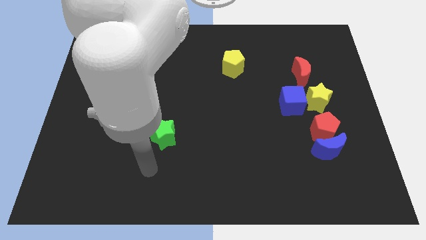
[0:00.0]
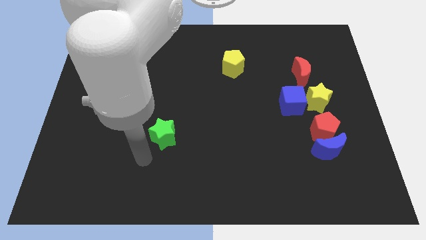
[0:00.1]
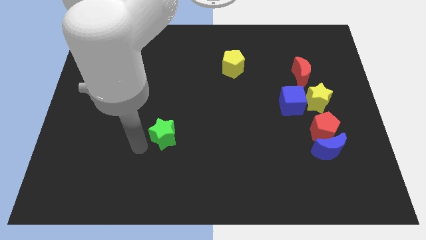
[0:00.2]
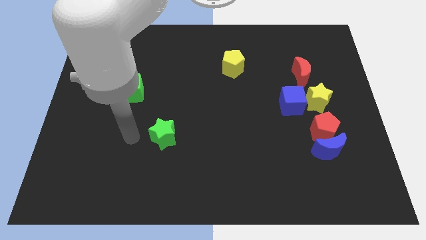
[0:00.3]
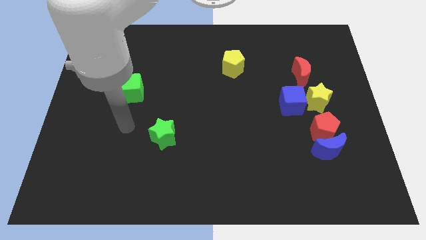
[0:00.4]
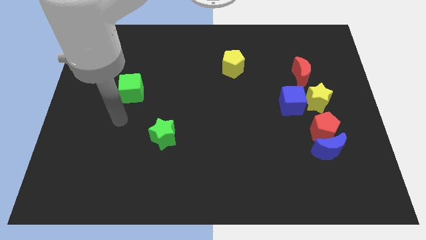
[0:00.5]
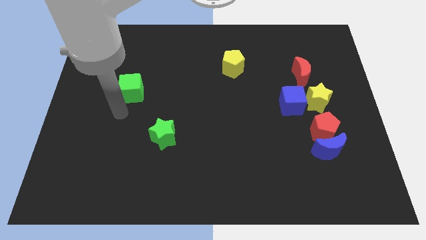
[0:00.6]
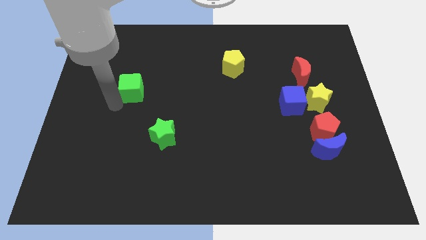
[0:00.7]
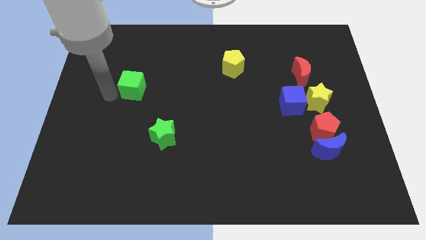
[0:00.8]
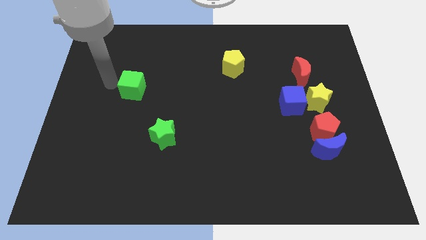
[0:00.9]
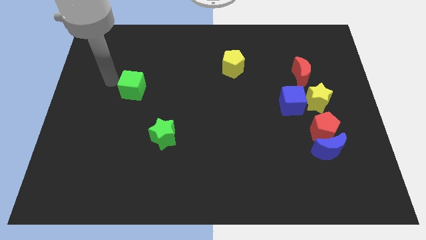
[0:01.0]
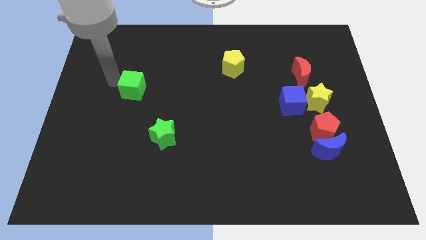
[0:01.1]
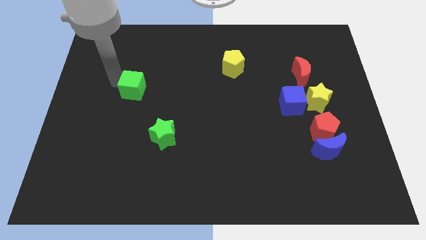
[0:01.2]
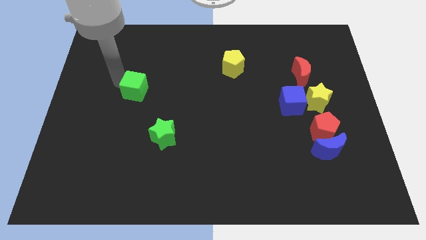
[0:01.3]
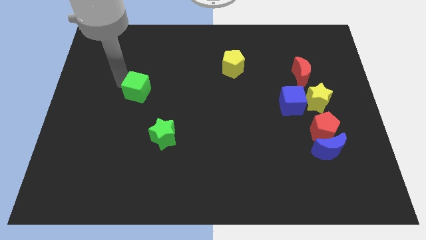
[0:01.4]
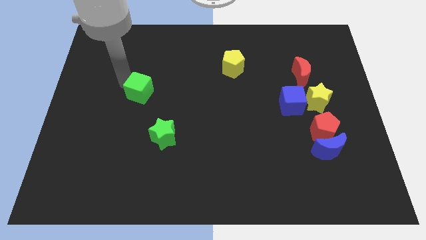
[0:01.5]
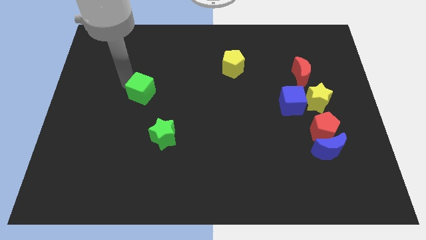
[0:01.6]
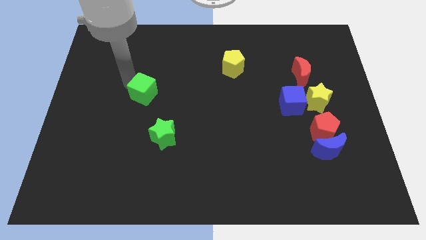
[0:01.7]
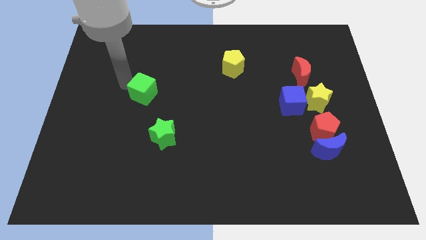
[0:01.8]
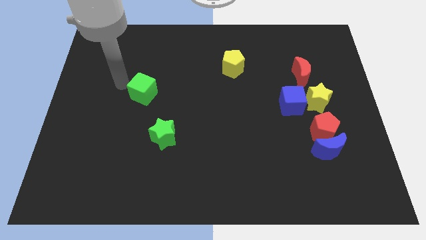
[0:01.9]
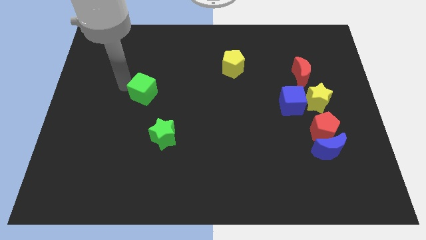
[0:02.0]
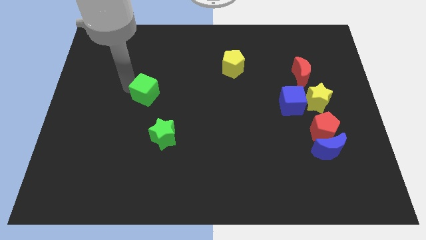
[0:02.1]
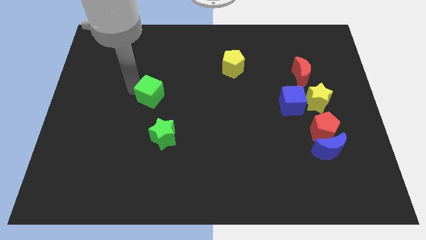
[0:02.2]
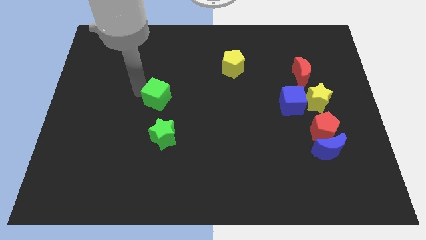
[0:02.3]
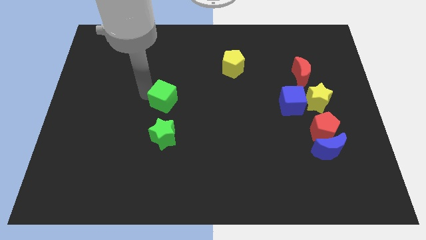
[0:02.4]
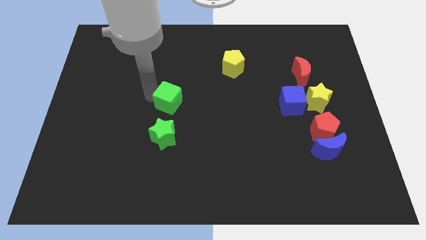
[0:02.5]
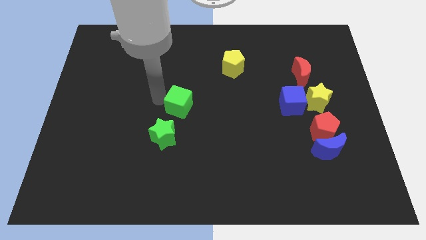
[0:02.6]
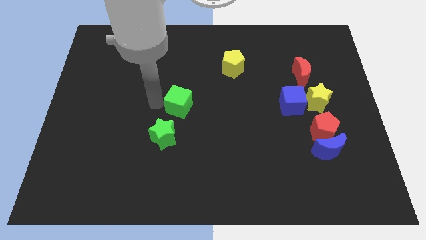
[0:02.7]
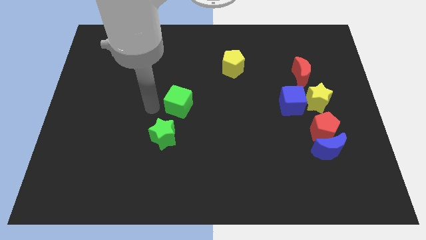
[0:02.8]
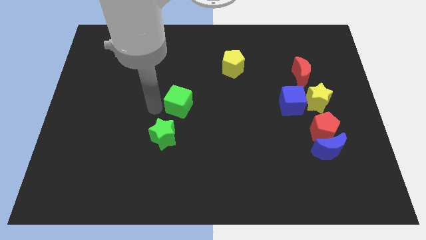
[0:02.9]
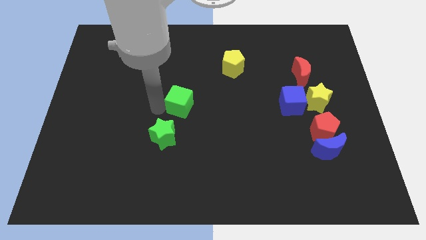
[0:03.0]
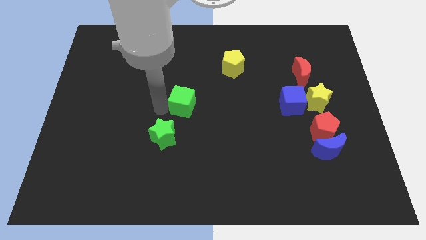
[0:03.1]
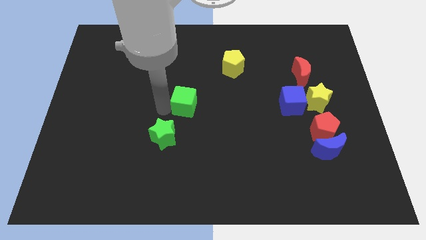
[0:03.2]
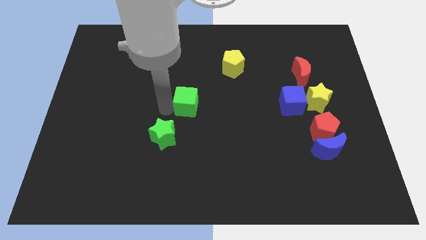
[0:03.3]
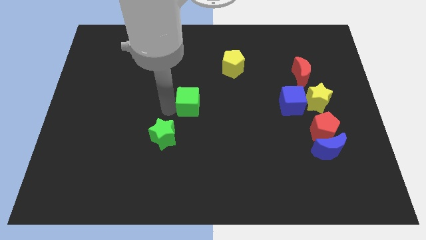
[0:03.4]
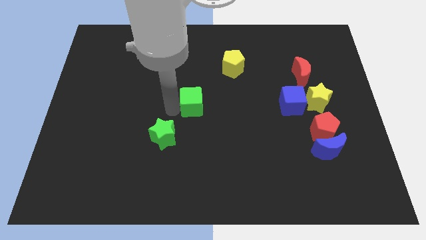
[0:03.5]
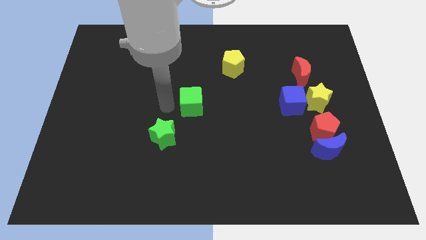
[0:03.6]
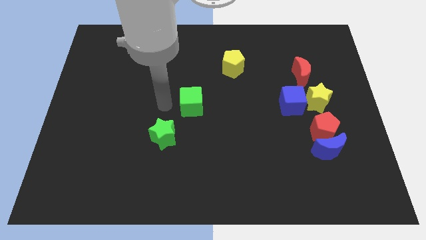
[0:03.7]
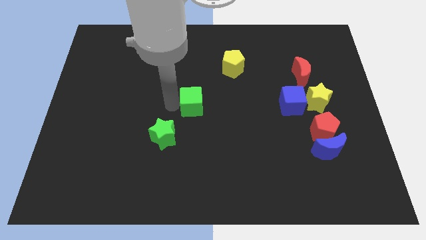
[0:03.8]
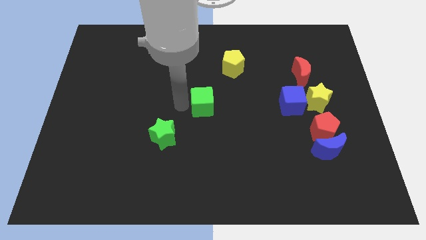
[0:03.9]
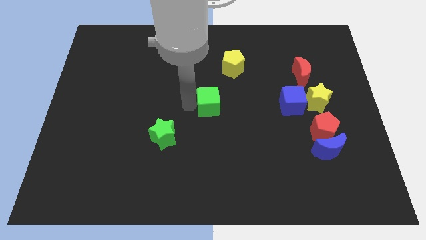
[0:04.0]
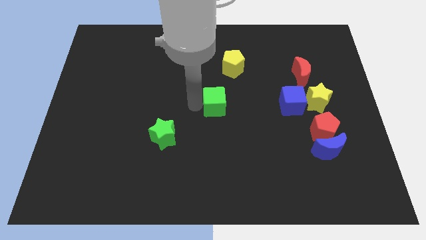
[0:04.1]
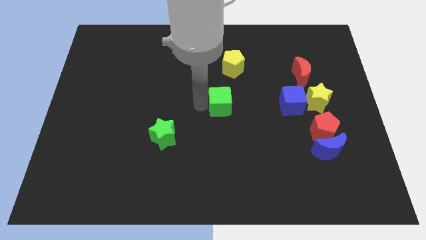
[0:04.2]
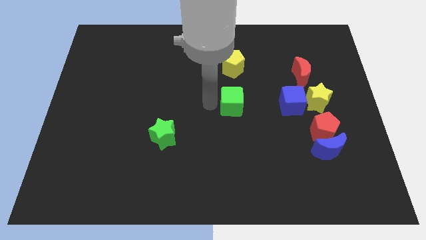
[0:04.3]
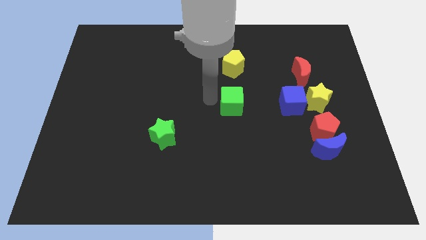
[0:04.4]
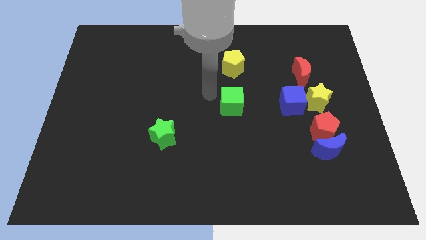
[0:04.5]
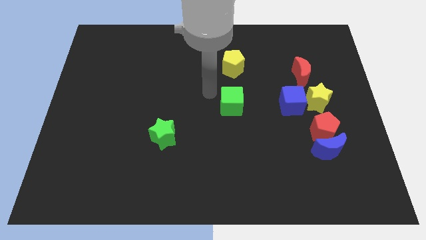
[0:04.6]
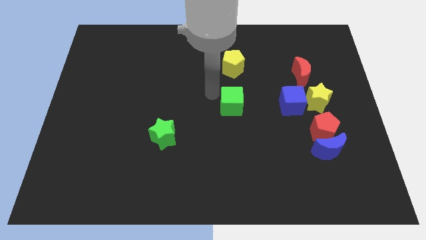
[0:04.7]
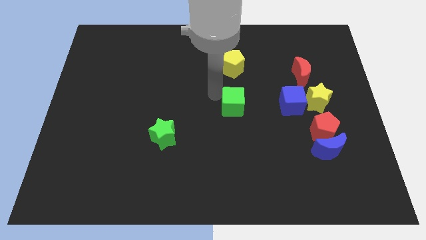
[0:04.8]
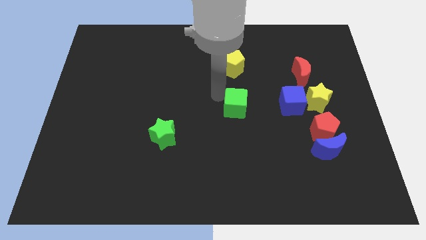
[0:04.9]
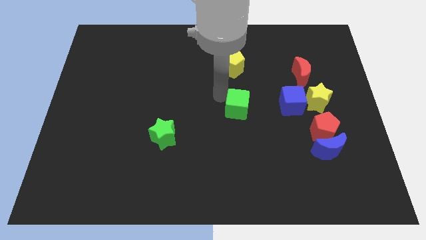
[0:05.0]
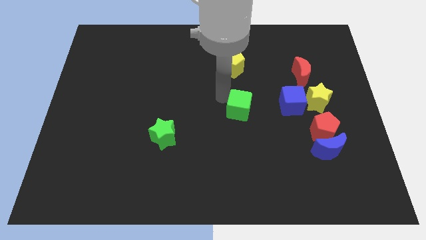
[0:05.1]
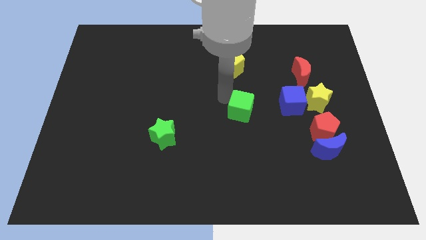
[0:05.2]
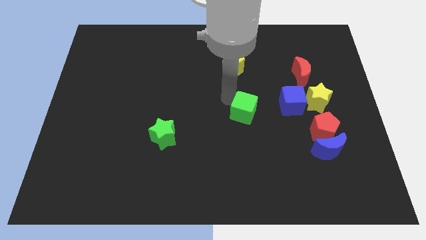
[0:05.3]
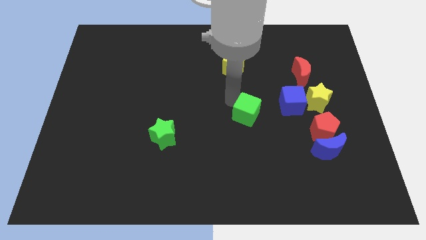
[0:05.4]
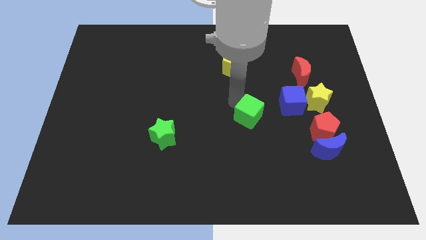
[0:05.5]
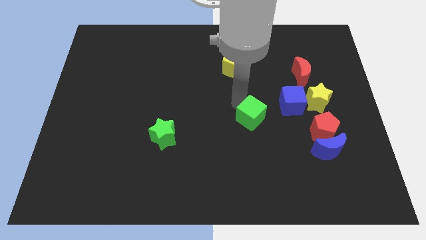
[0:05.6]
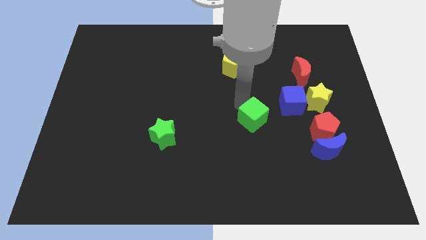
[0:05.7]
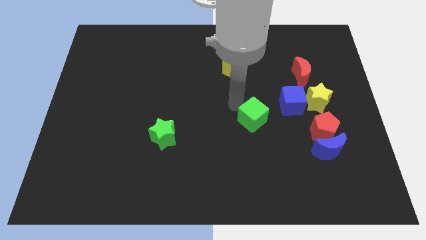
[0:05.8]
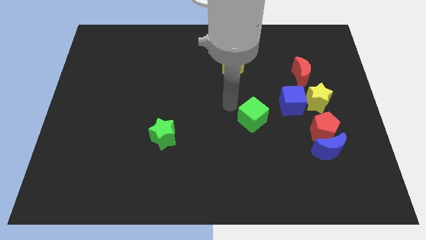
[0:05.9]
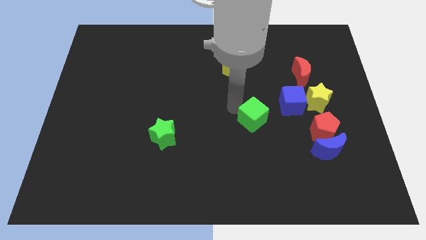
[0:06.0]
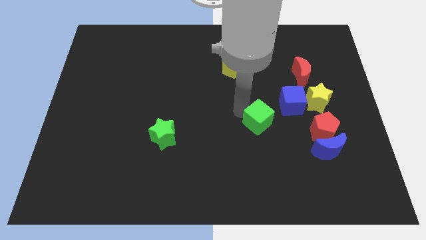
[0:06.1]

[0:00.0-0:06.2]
put the green cube just left of the red pentagon

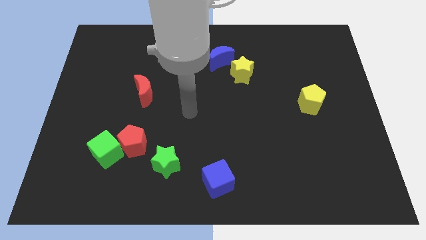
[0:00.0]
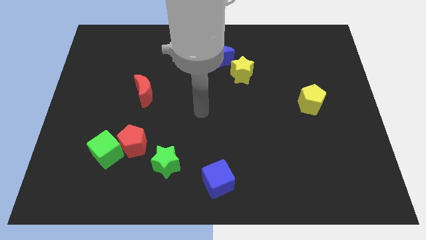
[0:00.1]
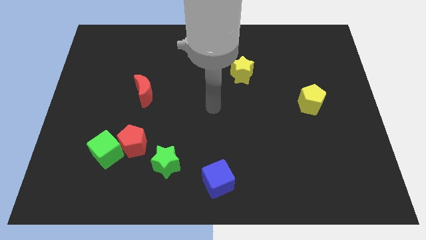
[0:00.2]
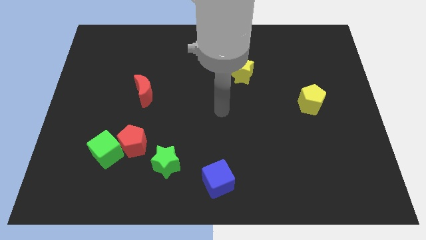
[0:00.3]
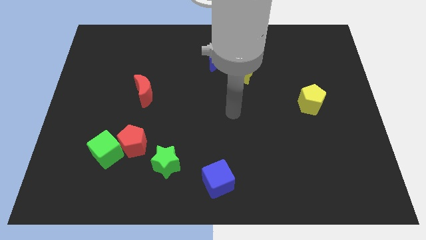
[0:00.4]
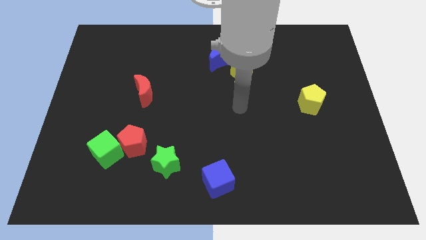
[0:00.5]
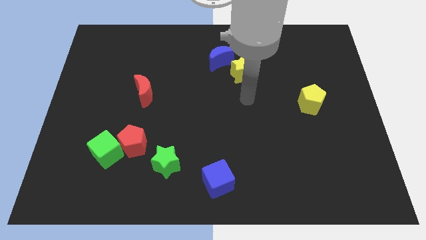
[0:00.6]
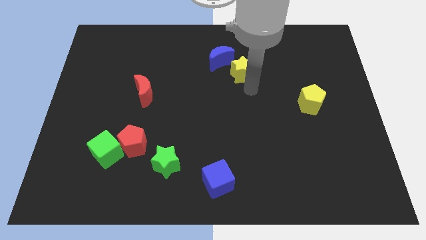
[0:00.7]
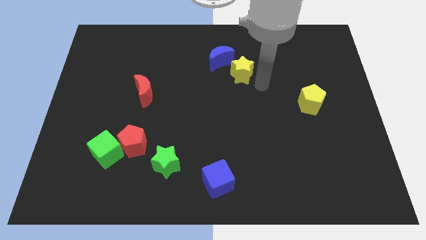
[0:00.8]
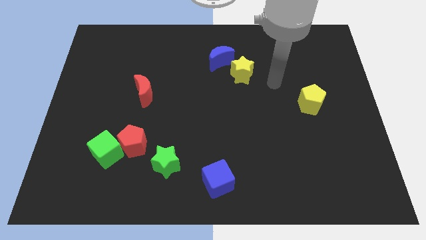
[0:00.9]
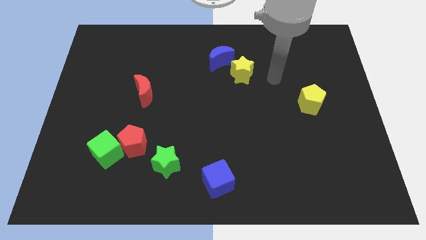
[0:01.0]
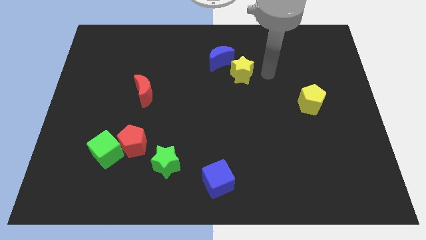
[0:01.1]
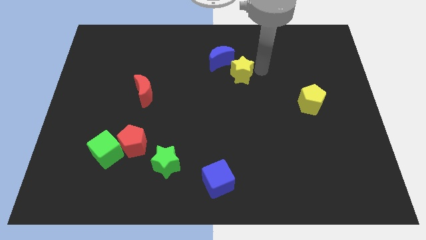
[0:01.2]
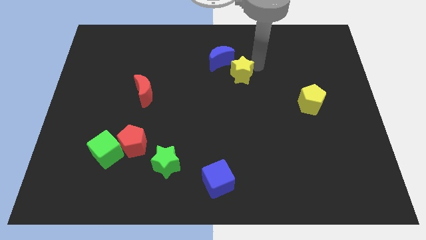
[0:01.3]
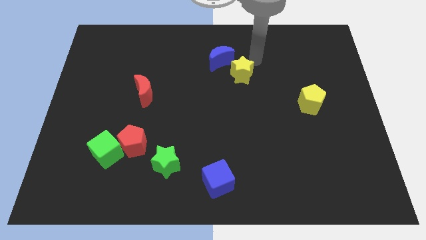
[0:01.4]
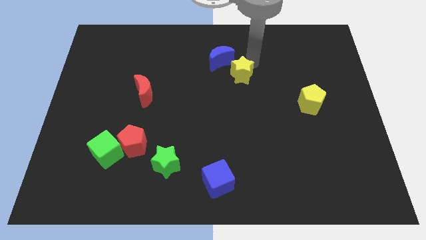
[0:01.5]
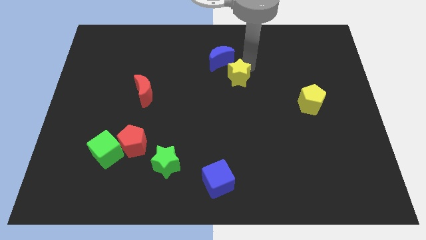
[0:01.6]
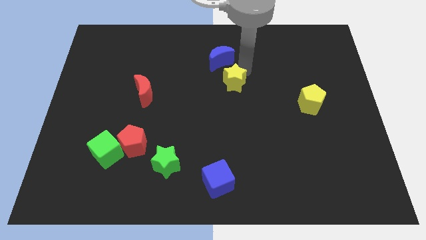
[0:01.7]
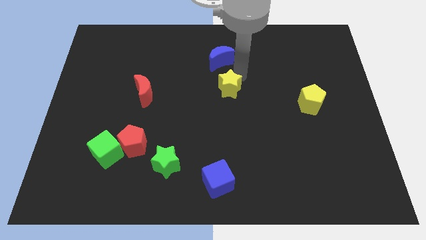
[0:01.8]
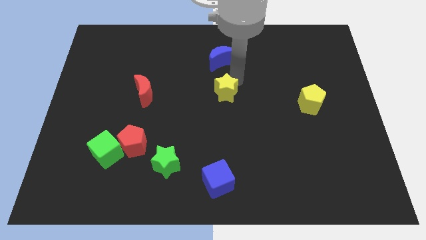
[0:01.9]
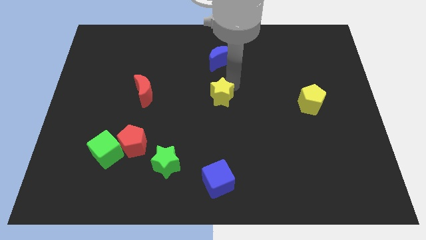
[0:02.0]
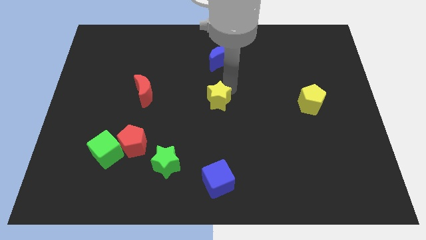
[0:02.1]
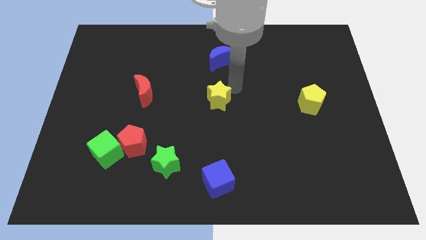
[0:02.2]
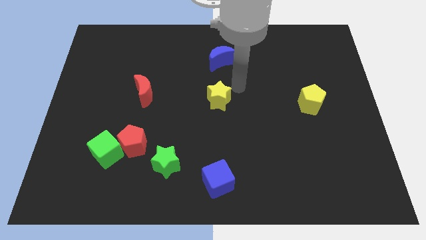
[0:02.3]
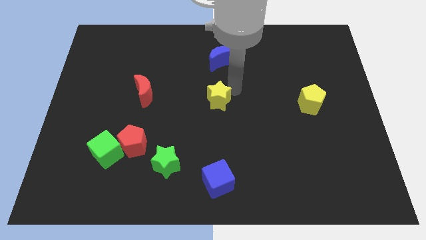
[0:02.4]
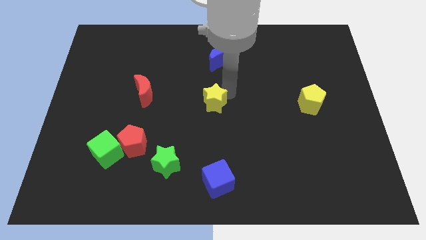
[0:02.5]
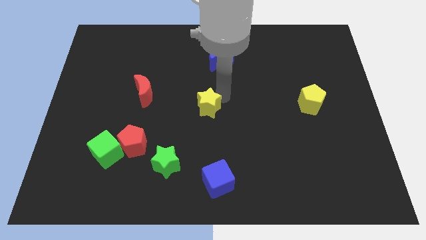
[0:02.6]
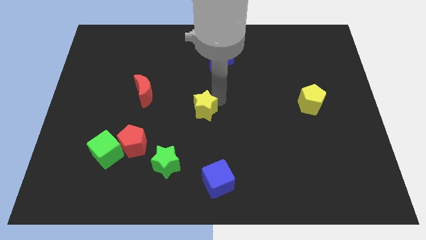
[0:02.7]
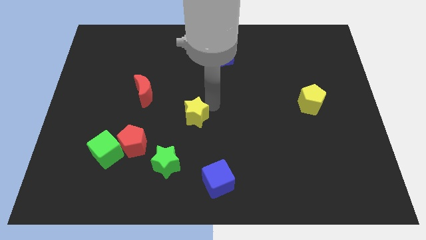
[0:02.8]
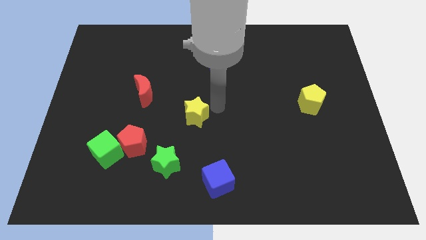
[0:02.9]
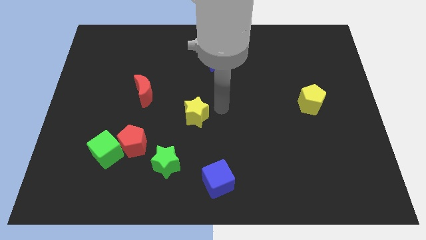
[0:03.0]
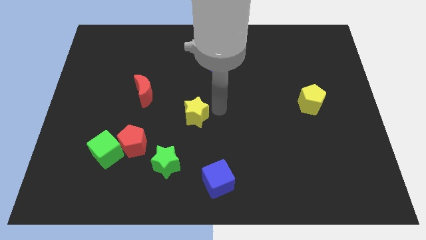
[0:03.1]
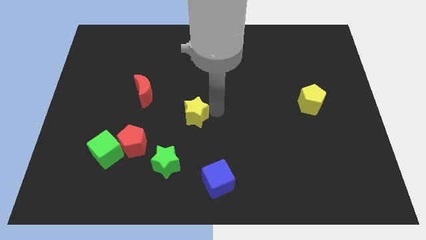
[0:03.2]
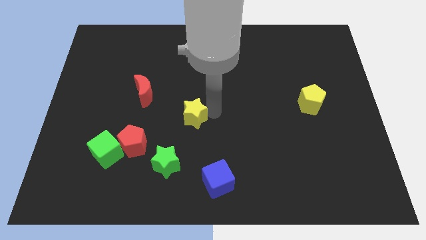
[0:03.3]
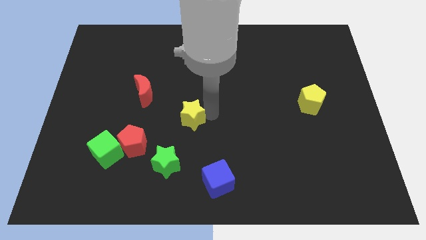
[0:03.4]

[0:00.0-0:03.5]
put the yellow star to the top side of the green star
